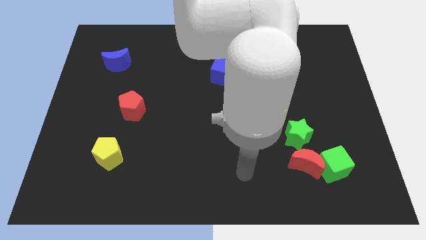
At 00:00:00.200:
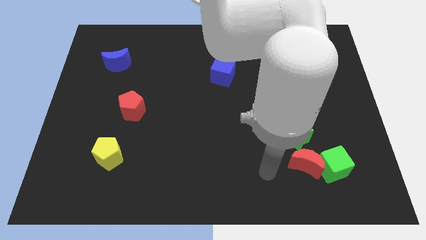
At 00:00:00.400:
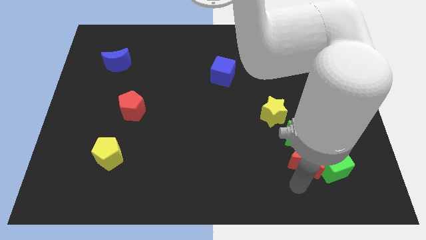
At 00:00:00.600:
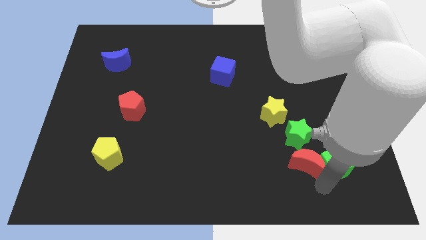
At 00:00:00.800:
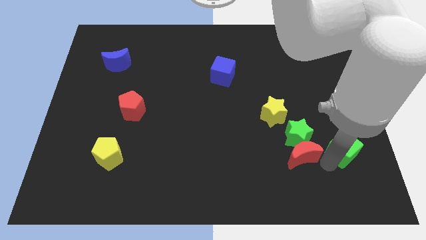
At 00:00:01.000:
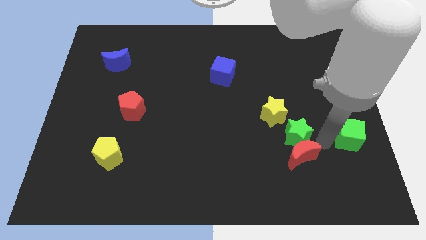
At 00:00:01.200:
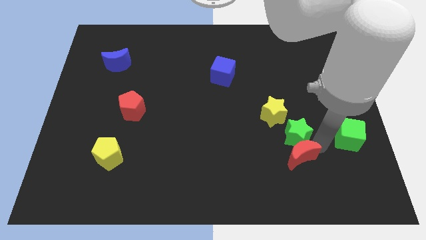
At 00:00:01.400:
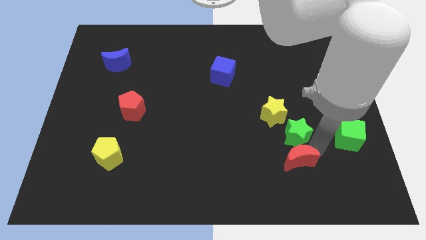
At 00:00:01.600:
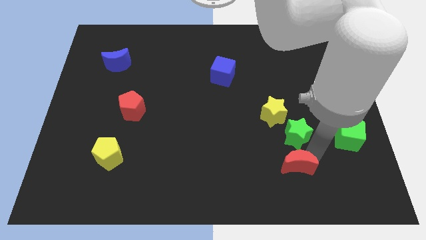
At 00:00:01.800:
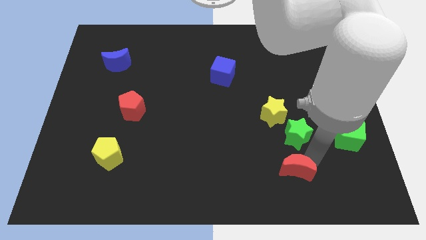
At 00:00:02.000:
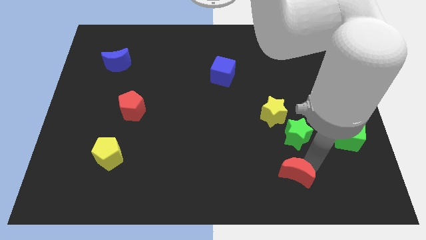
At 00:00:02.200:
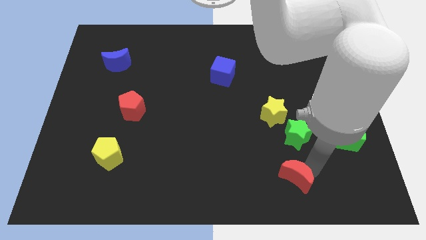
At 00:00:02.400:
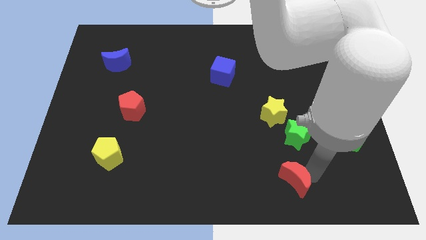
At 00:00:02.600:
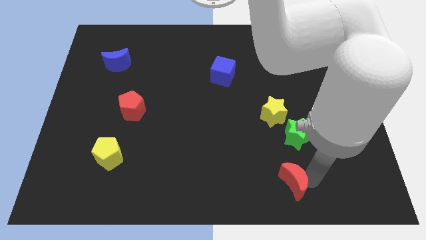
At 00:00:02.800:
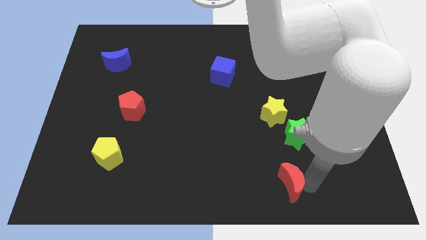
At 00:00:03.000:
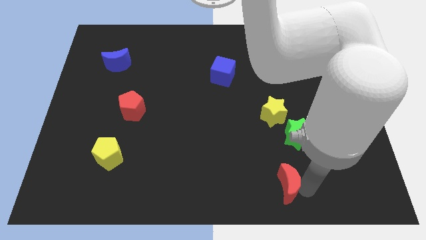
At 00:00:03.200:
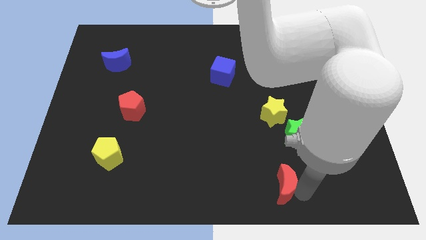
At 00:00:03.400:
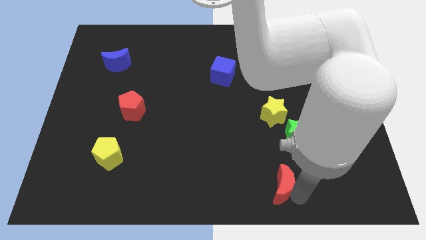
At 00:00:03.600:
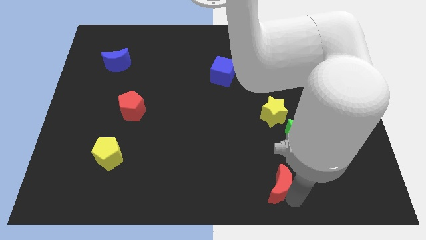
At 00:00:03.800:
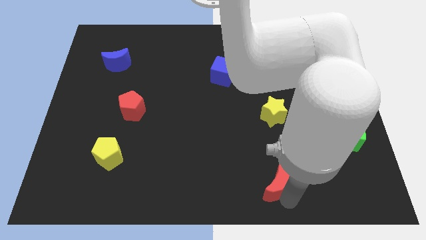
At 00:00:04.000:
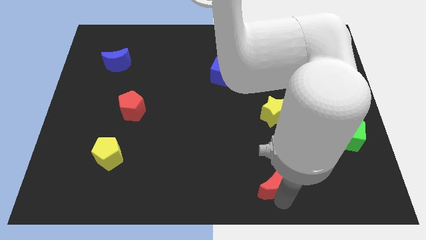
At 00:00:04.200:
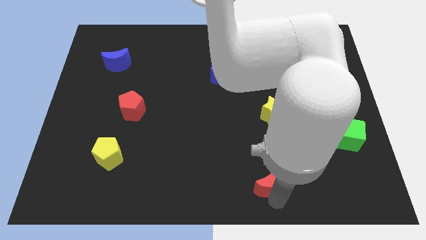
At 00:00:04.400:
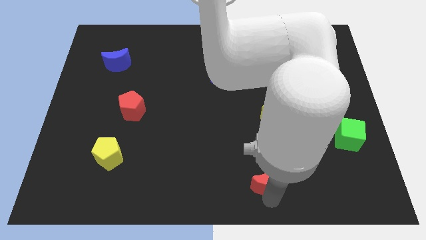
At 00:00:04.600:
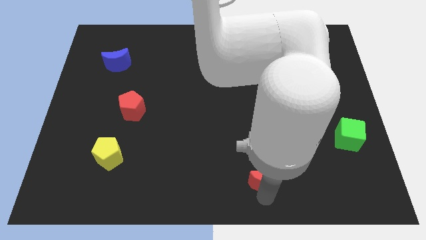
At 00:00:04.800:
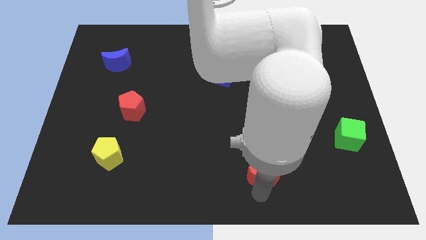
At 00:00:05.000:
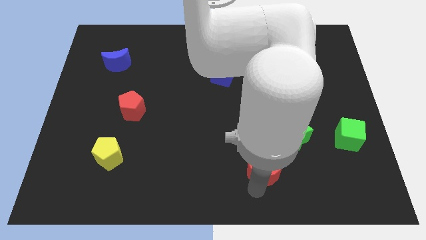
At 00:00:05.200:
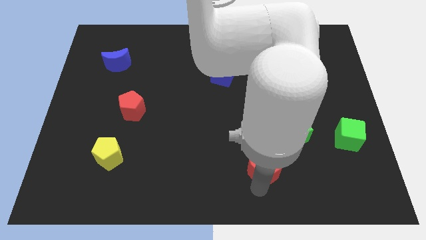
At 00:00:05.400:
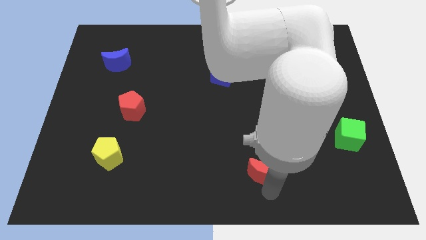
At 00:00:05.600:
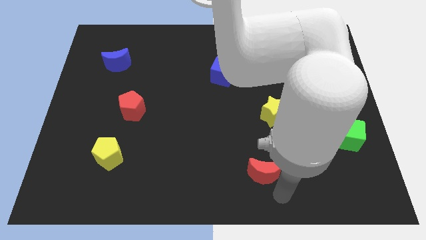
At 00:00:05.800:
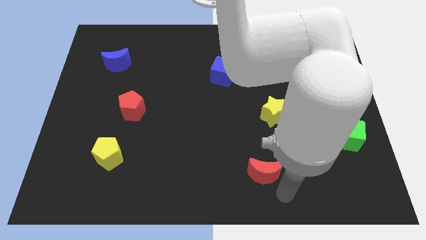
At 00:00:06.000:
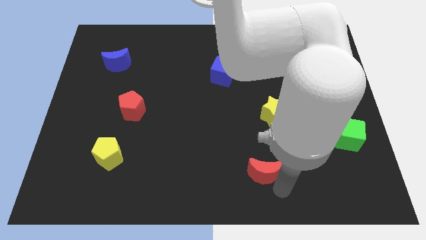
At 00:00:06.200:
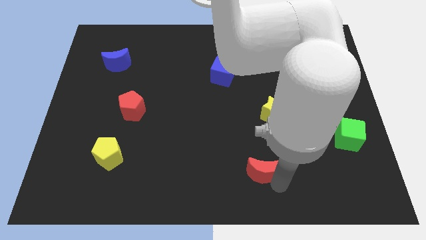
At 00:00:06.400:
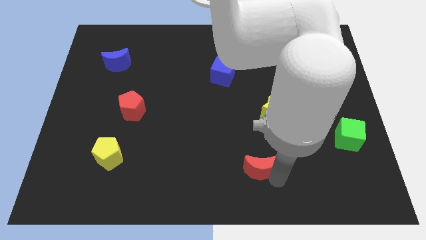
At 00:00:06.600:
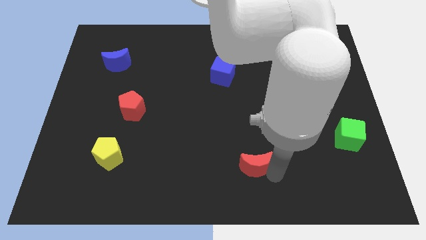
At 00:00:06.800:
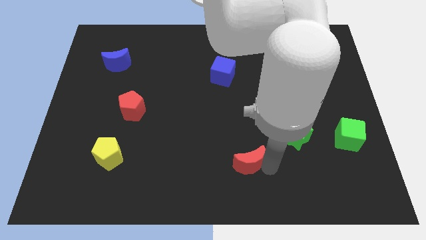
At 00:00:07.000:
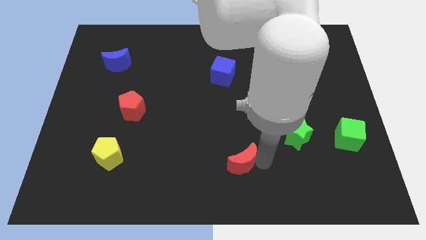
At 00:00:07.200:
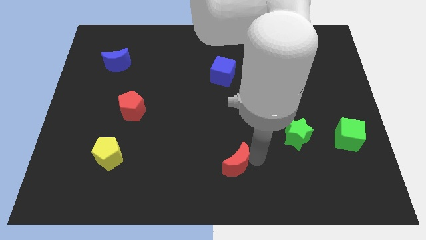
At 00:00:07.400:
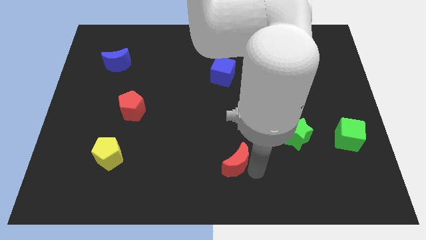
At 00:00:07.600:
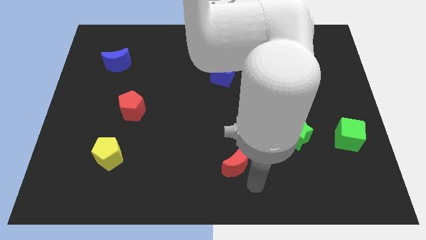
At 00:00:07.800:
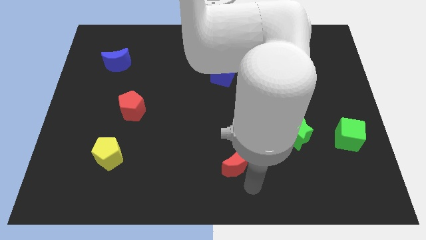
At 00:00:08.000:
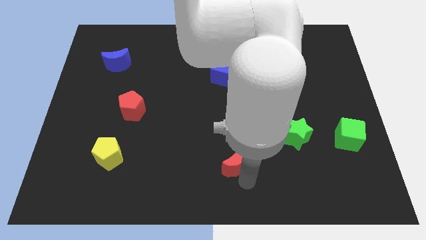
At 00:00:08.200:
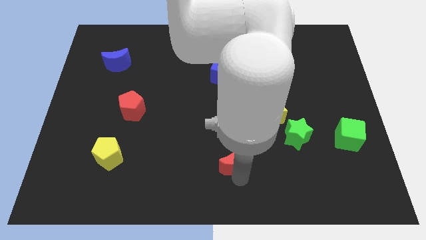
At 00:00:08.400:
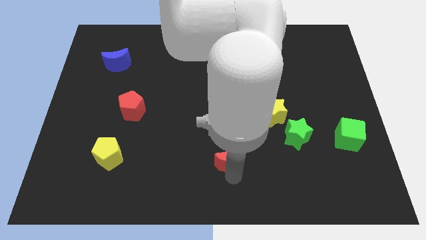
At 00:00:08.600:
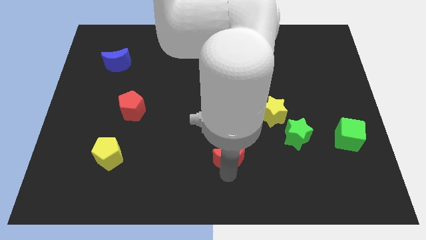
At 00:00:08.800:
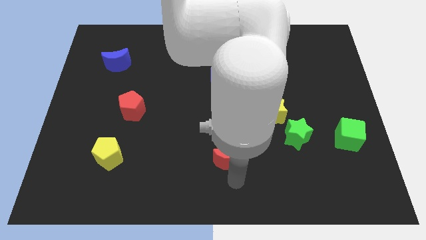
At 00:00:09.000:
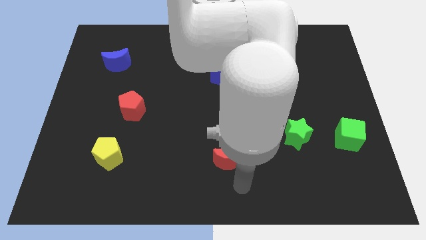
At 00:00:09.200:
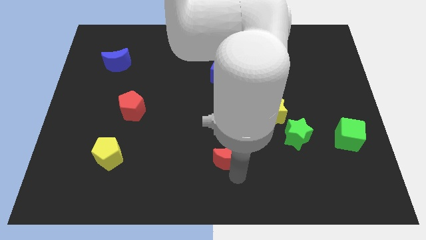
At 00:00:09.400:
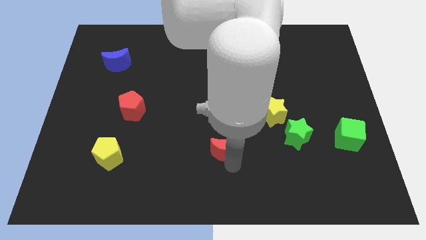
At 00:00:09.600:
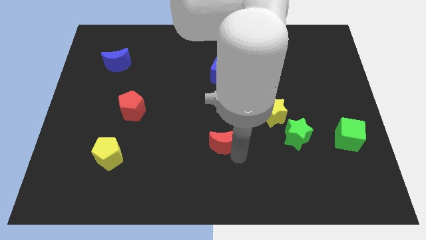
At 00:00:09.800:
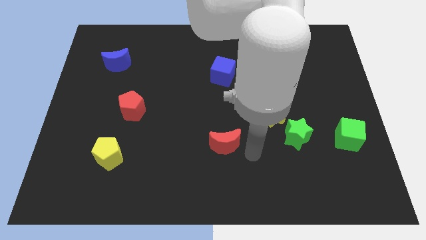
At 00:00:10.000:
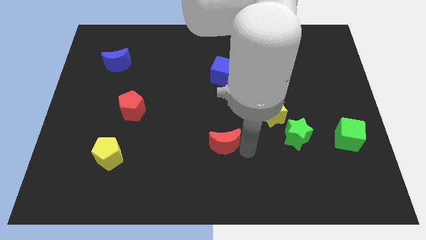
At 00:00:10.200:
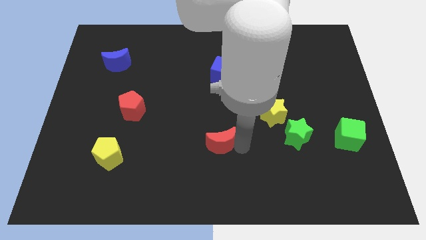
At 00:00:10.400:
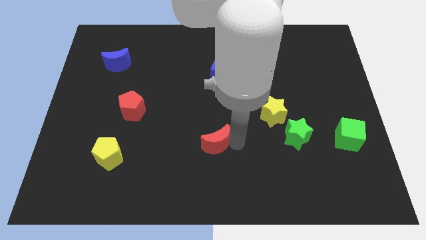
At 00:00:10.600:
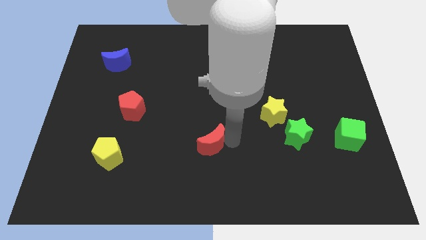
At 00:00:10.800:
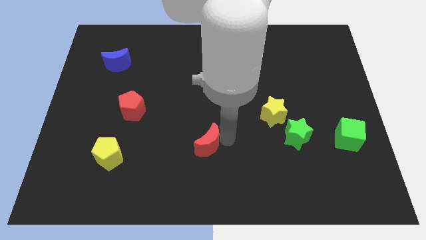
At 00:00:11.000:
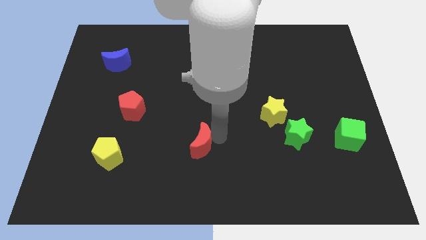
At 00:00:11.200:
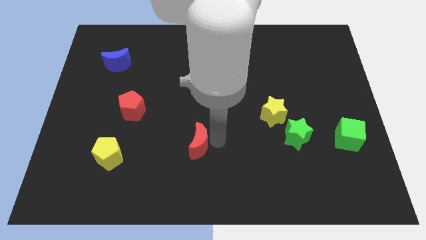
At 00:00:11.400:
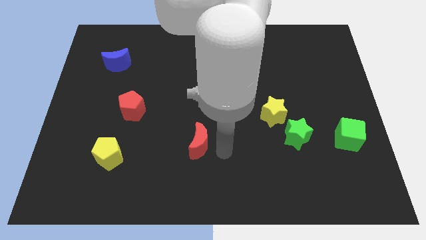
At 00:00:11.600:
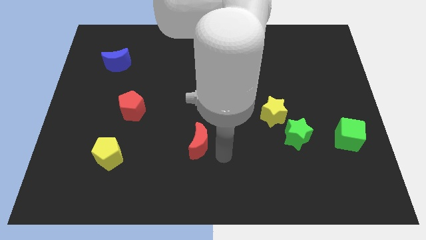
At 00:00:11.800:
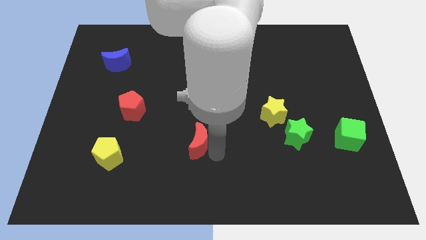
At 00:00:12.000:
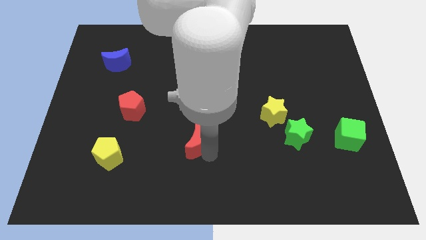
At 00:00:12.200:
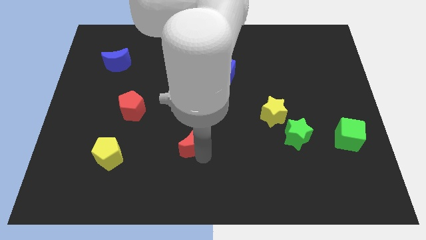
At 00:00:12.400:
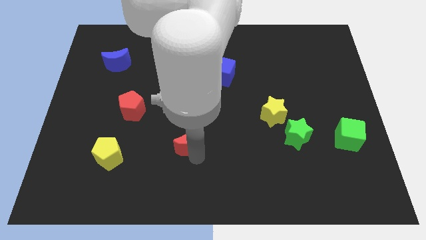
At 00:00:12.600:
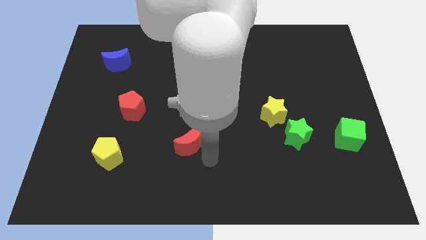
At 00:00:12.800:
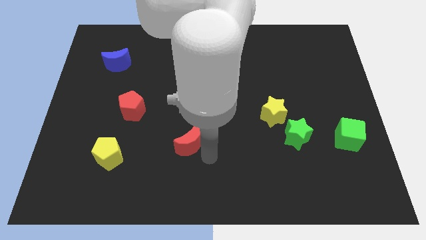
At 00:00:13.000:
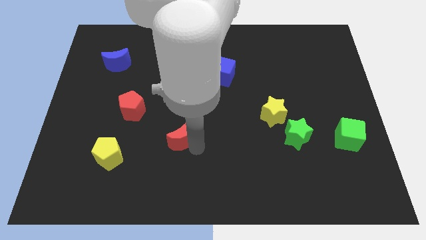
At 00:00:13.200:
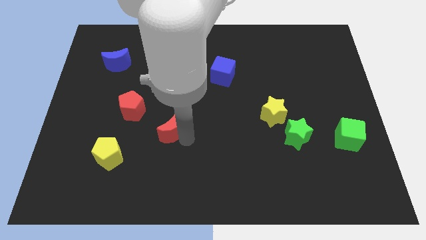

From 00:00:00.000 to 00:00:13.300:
put the red moon to the bottom right side of the red pentagon
